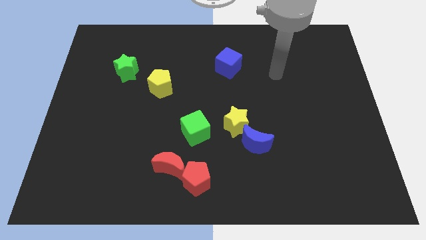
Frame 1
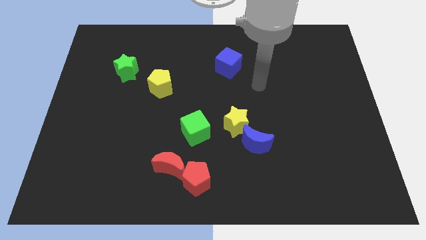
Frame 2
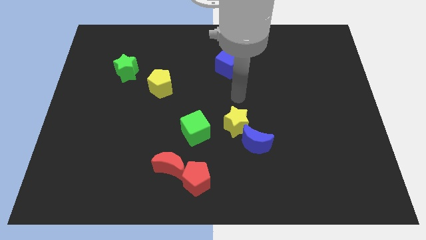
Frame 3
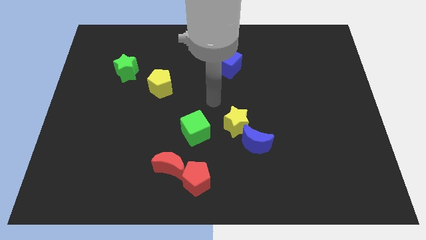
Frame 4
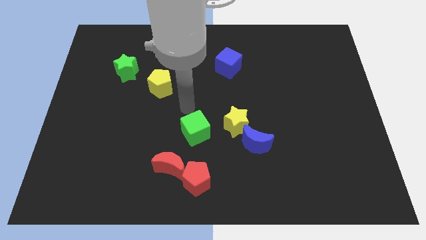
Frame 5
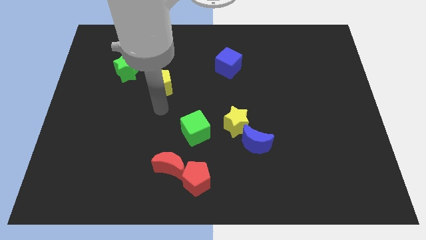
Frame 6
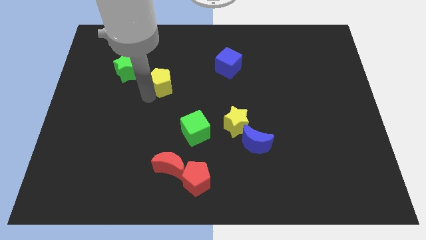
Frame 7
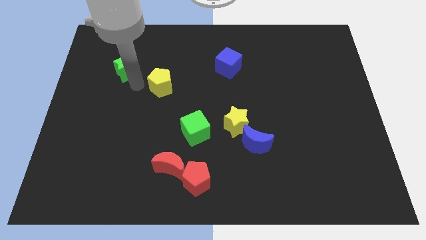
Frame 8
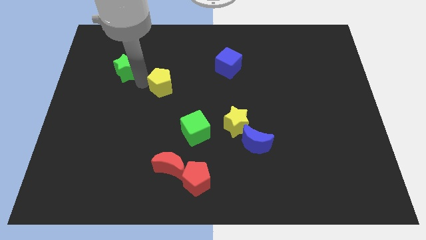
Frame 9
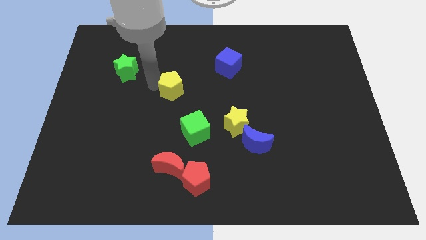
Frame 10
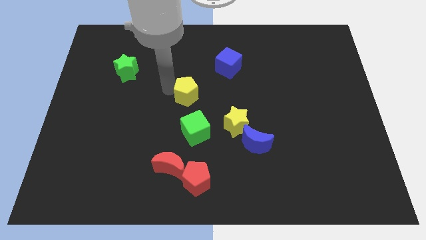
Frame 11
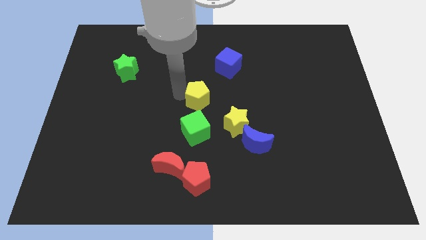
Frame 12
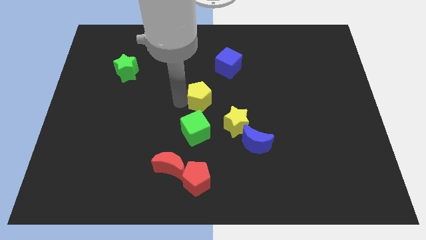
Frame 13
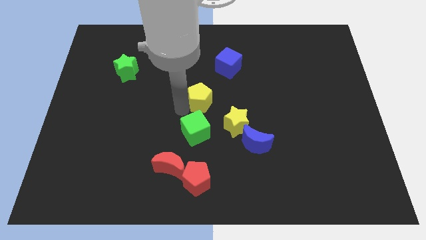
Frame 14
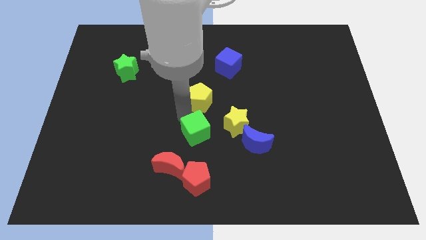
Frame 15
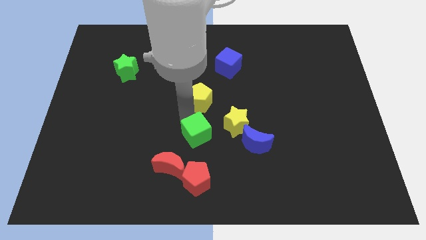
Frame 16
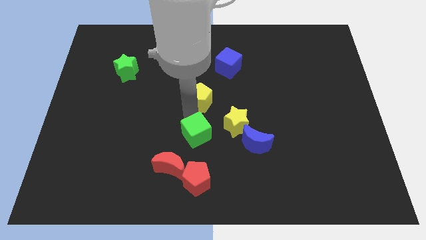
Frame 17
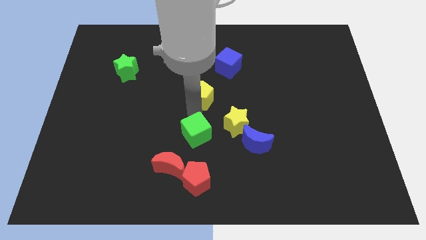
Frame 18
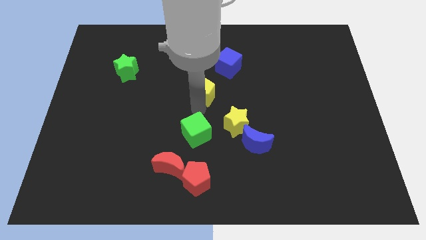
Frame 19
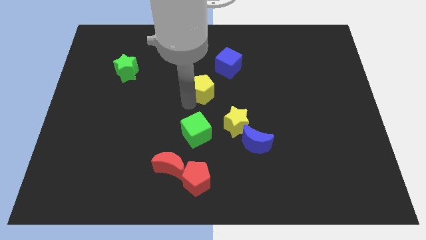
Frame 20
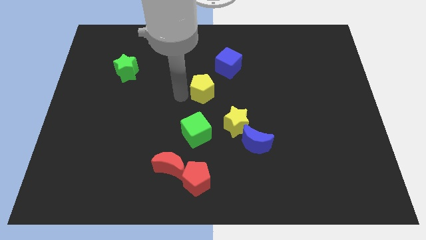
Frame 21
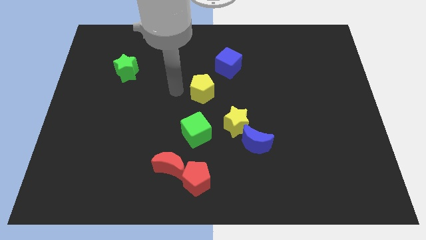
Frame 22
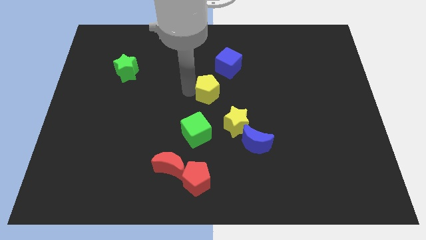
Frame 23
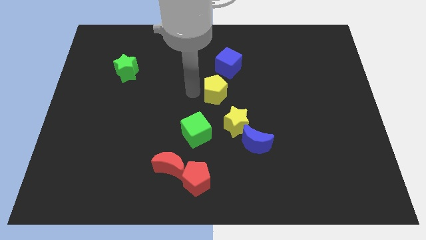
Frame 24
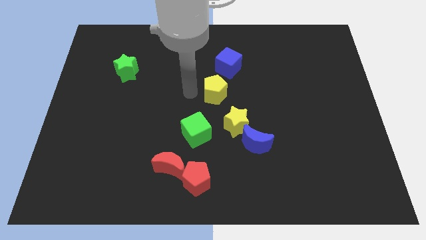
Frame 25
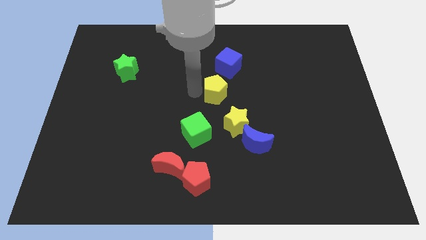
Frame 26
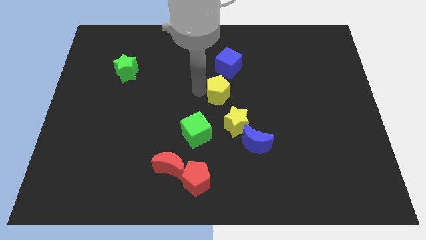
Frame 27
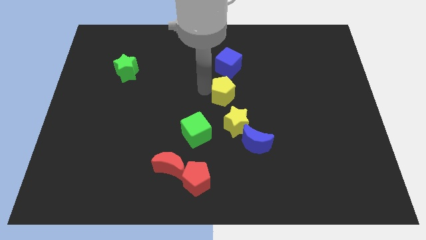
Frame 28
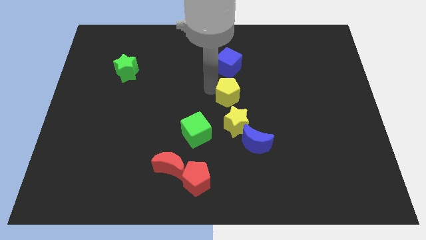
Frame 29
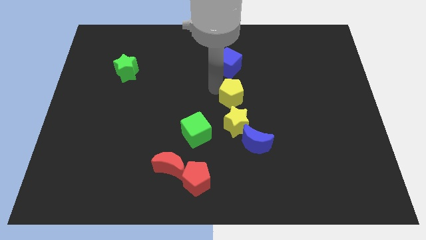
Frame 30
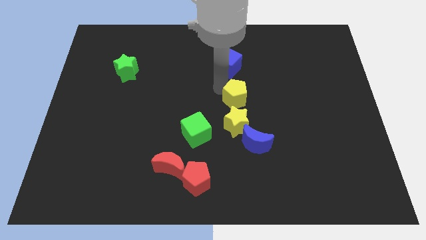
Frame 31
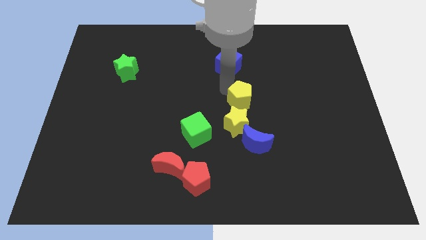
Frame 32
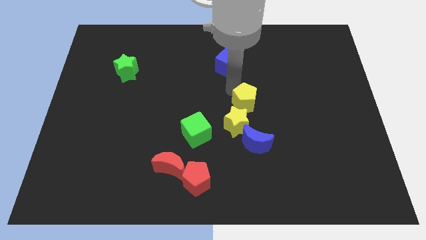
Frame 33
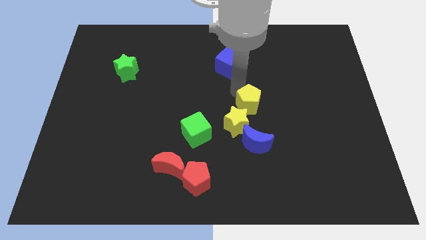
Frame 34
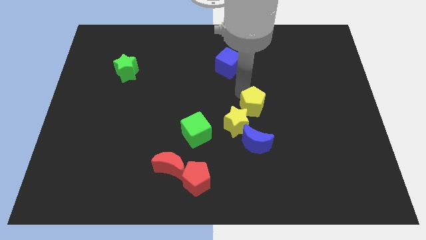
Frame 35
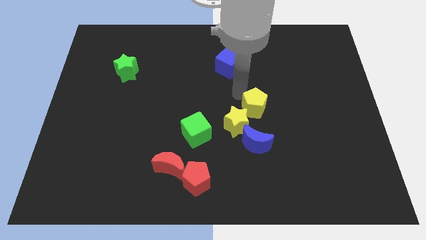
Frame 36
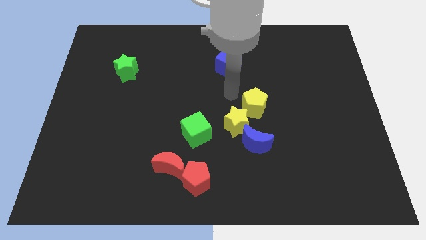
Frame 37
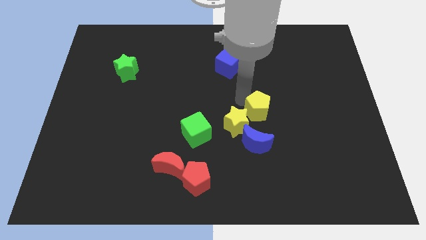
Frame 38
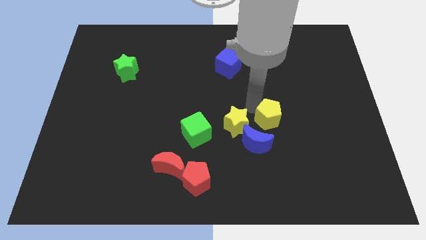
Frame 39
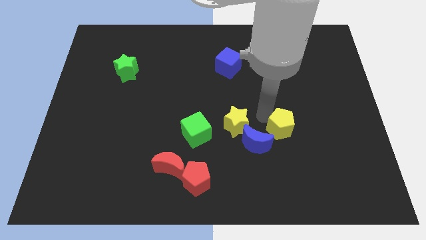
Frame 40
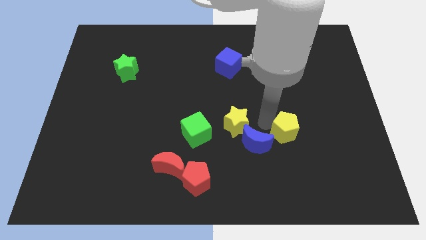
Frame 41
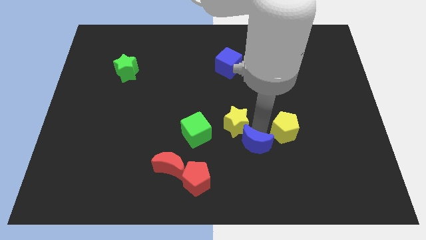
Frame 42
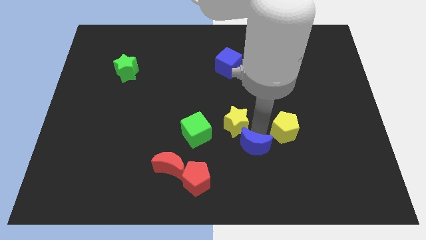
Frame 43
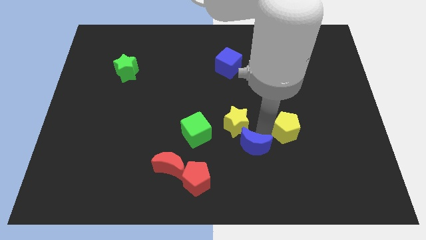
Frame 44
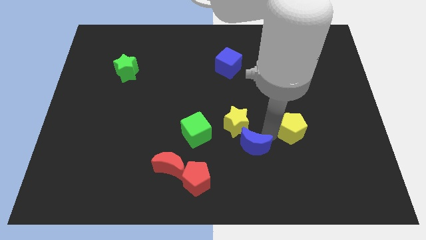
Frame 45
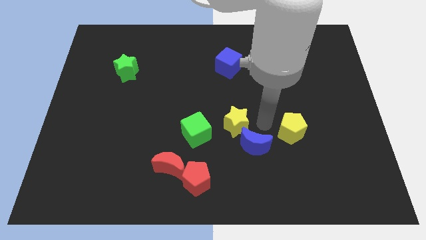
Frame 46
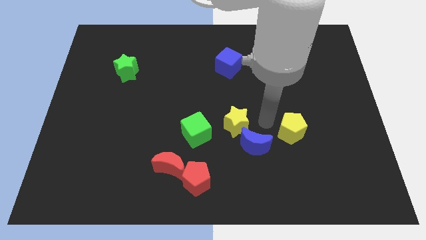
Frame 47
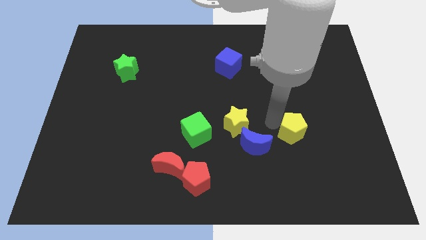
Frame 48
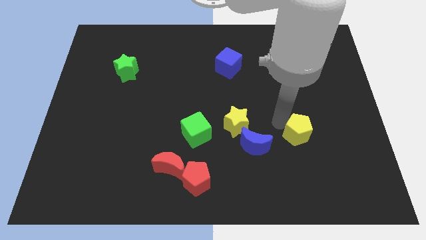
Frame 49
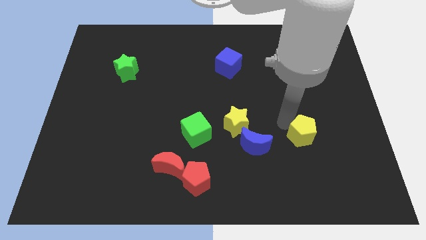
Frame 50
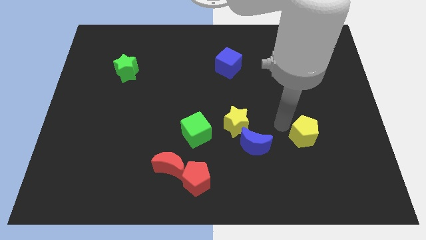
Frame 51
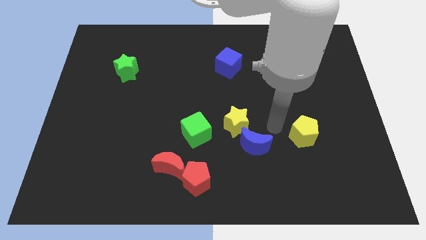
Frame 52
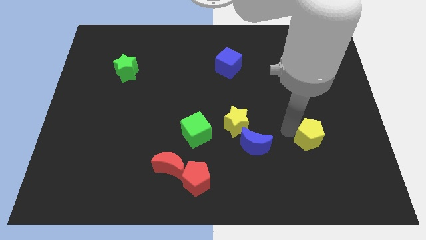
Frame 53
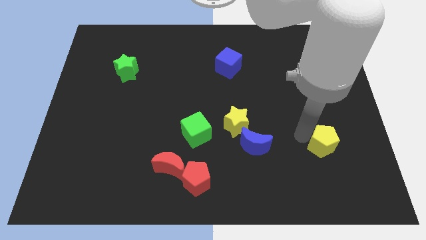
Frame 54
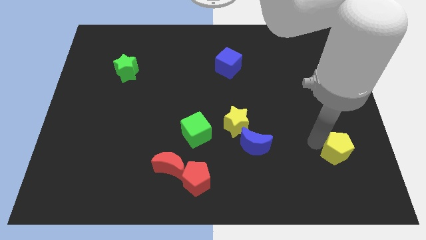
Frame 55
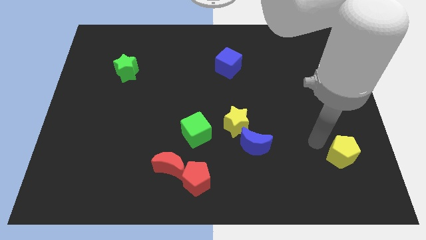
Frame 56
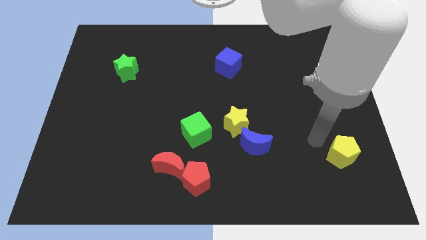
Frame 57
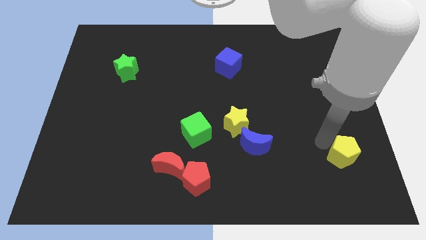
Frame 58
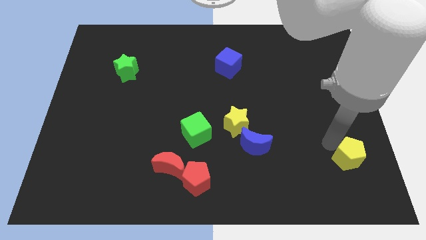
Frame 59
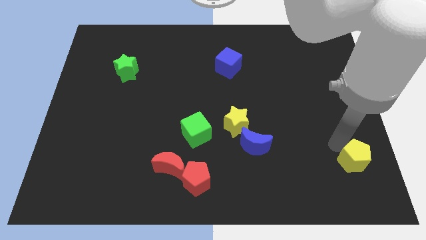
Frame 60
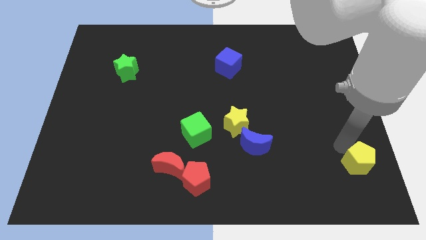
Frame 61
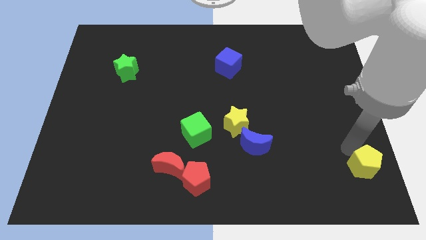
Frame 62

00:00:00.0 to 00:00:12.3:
move the yellow pentagon to the bottom right corner
